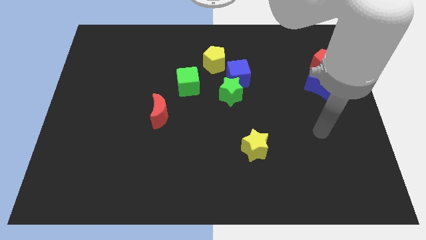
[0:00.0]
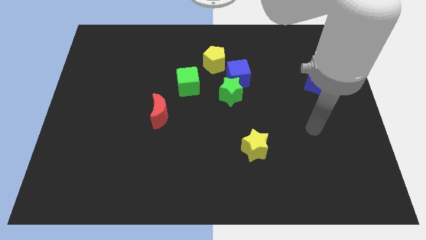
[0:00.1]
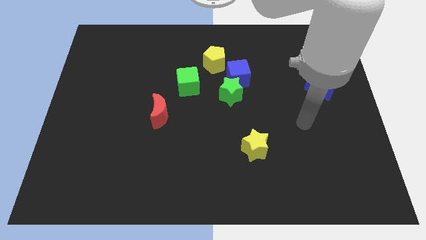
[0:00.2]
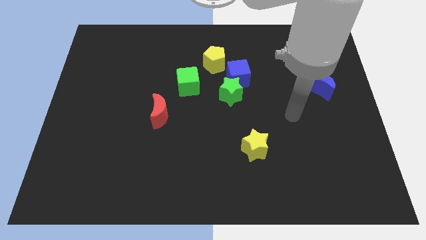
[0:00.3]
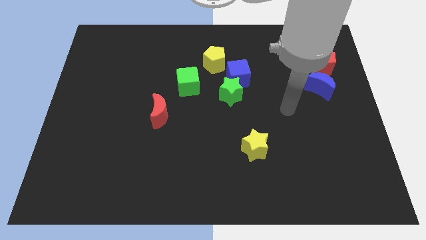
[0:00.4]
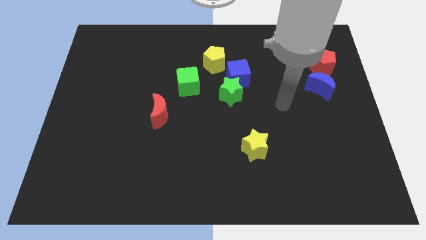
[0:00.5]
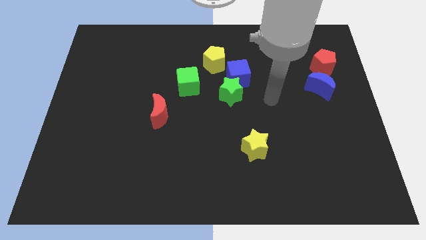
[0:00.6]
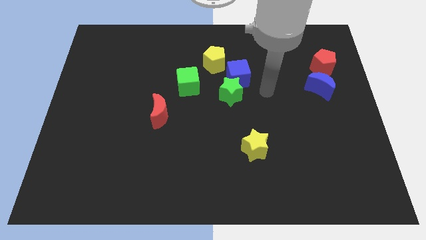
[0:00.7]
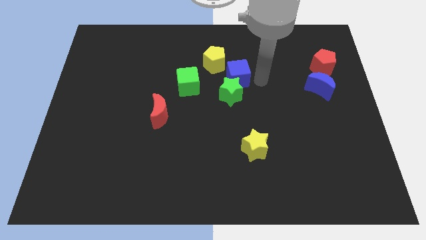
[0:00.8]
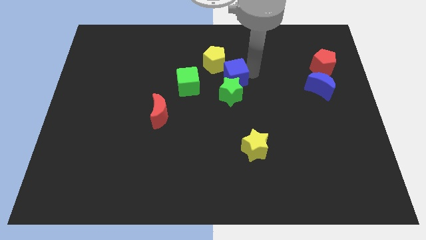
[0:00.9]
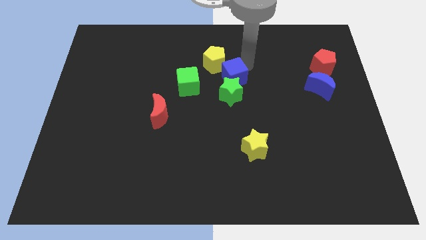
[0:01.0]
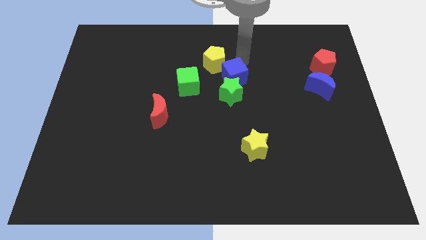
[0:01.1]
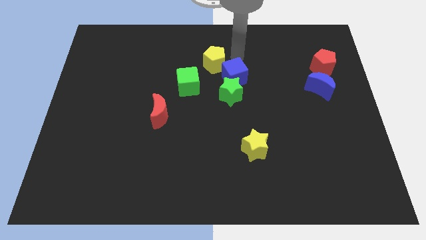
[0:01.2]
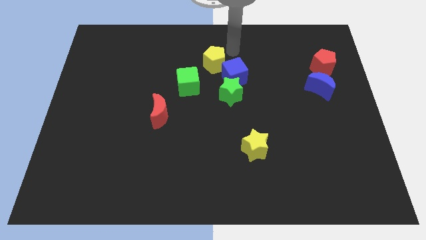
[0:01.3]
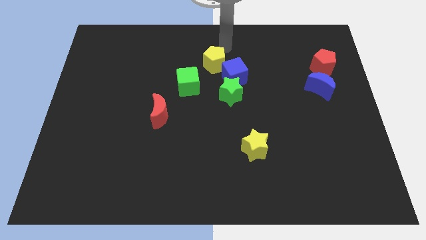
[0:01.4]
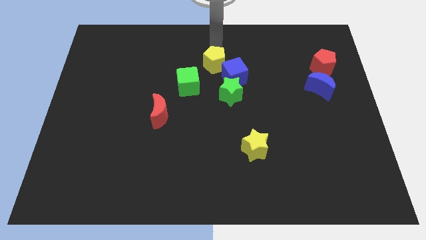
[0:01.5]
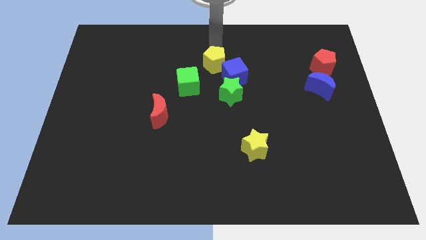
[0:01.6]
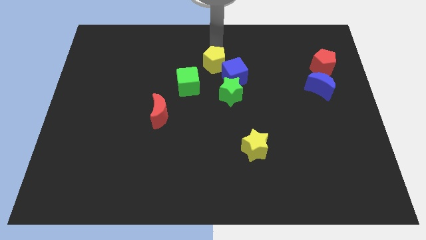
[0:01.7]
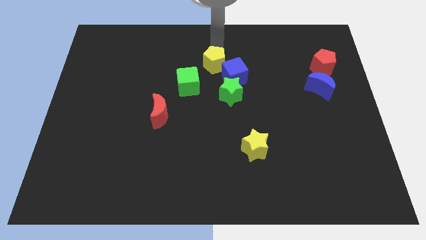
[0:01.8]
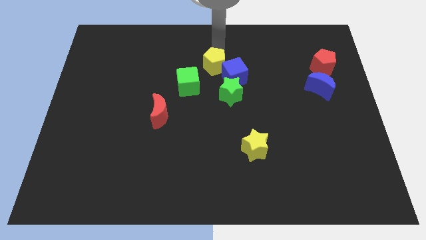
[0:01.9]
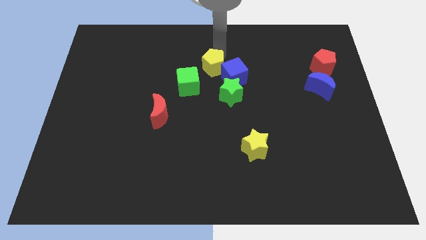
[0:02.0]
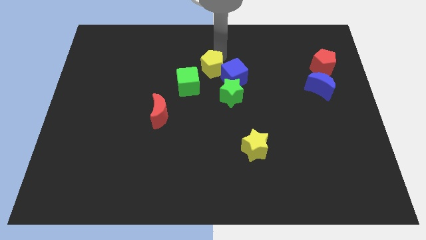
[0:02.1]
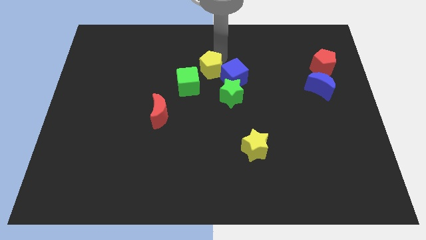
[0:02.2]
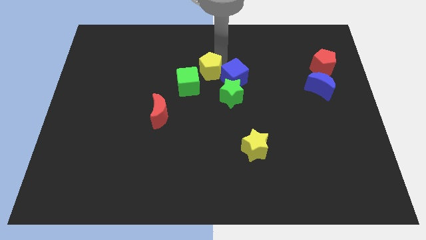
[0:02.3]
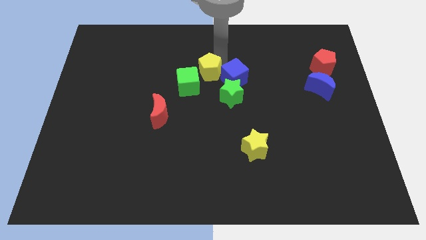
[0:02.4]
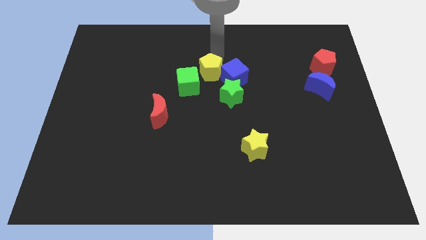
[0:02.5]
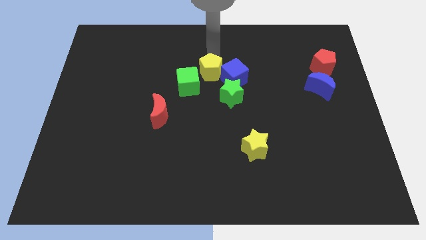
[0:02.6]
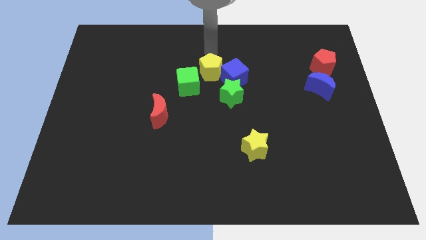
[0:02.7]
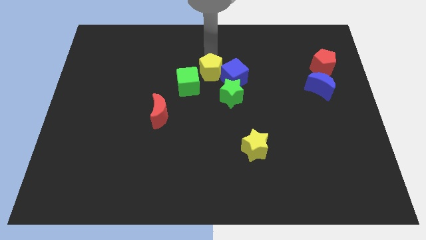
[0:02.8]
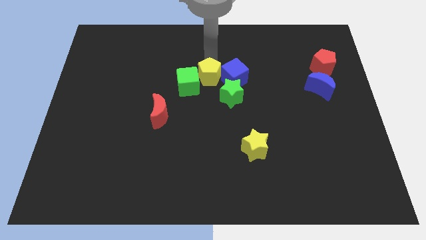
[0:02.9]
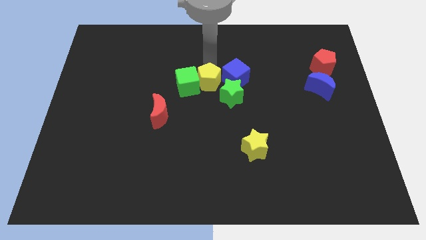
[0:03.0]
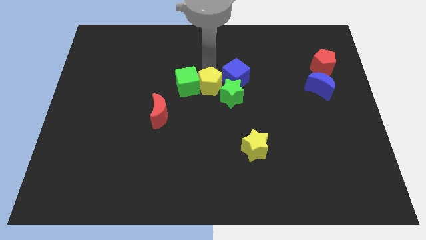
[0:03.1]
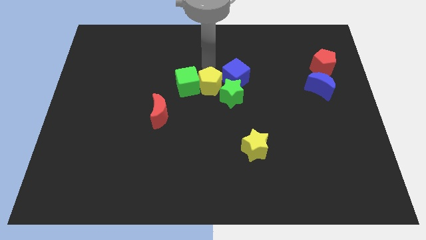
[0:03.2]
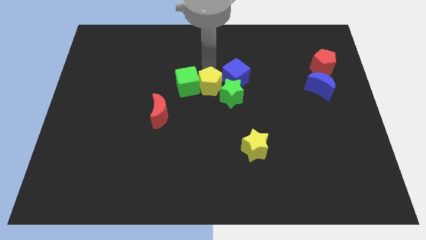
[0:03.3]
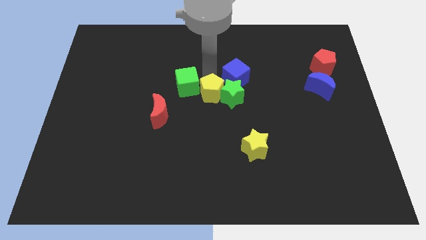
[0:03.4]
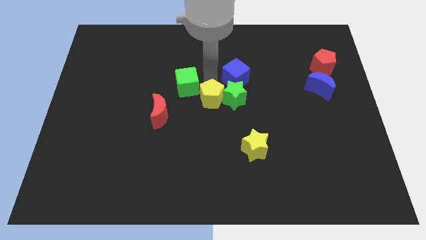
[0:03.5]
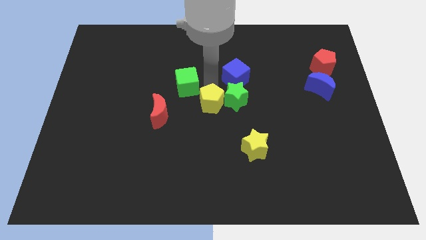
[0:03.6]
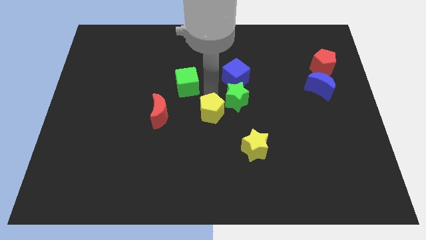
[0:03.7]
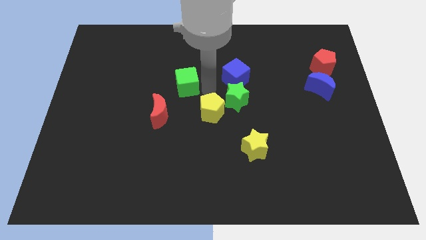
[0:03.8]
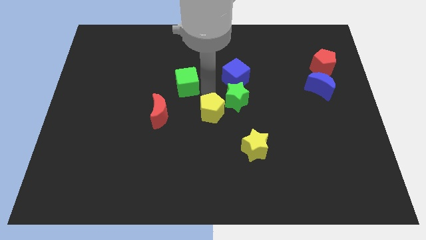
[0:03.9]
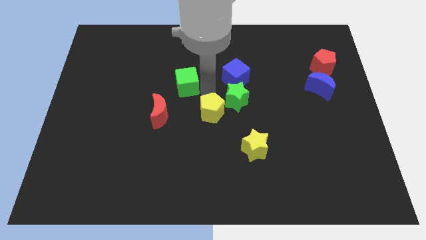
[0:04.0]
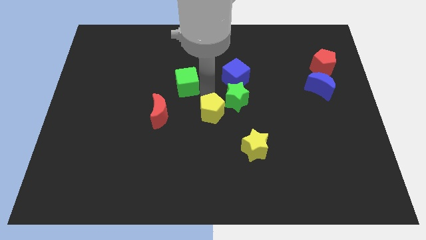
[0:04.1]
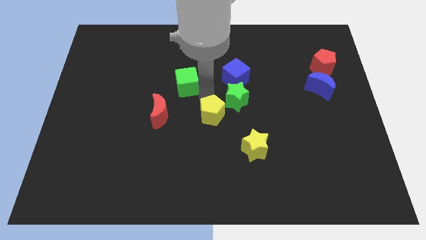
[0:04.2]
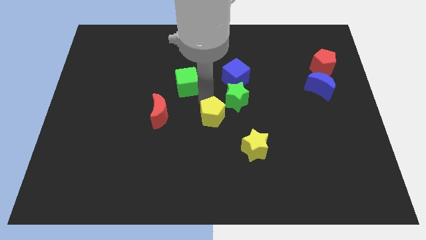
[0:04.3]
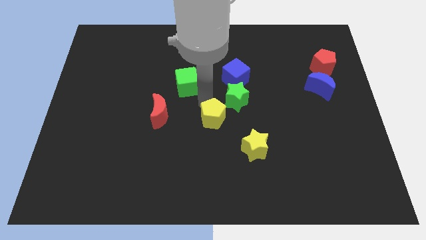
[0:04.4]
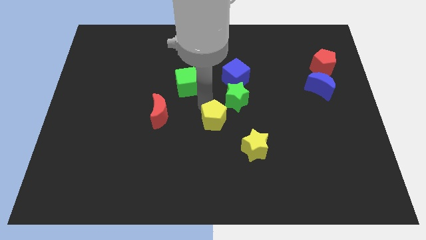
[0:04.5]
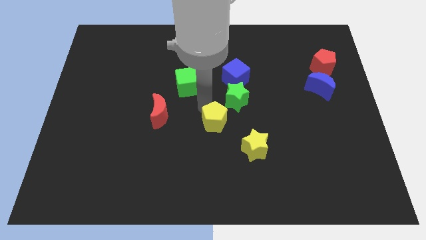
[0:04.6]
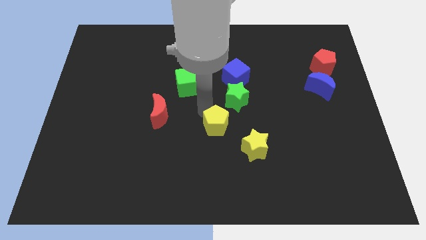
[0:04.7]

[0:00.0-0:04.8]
move the yellow pentagon down

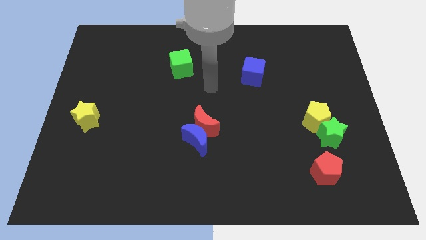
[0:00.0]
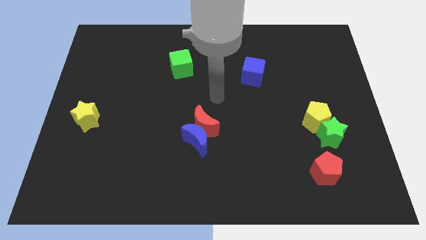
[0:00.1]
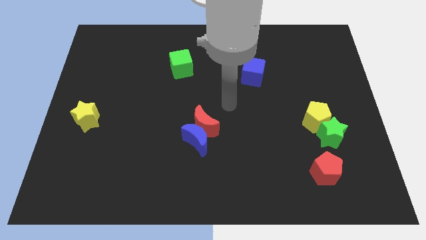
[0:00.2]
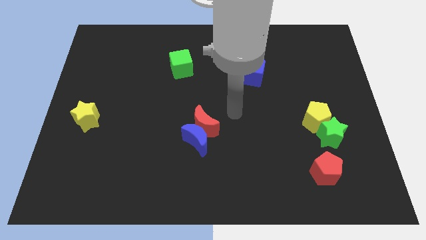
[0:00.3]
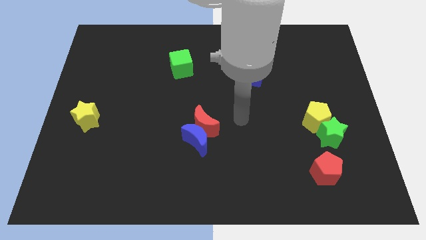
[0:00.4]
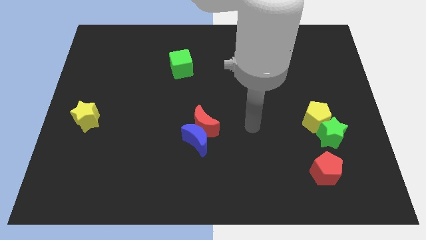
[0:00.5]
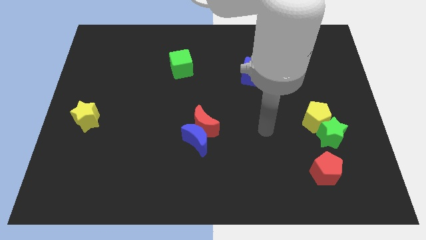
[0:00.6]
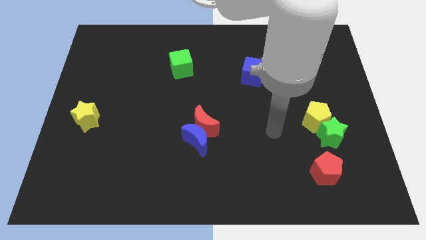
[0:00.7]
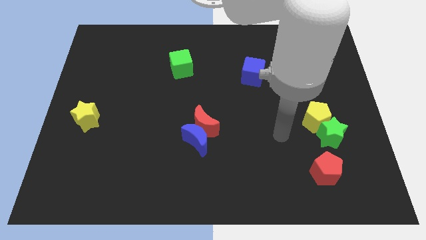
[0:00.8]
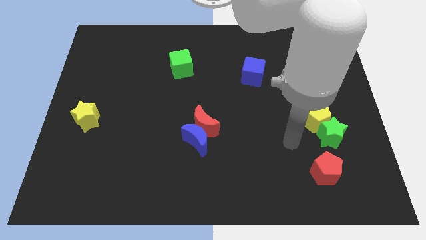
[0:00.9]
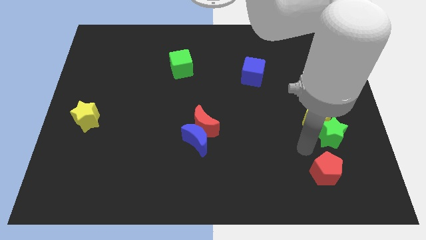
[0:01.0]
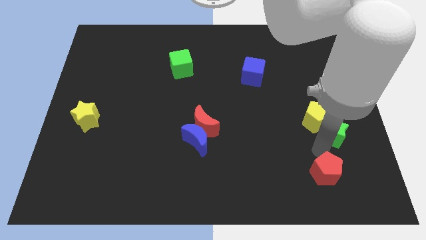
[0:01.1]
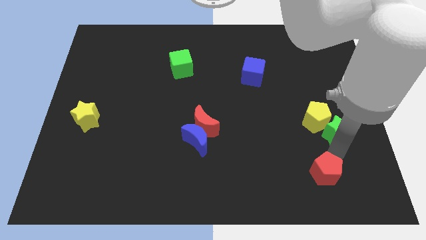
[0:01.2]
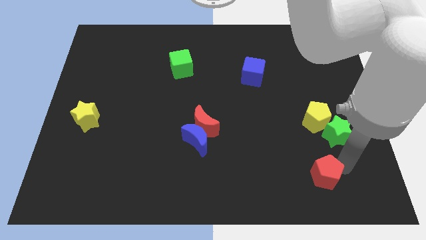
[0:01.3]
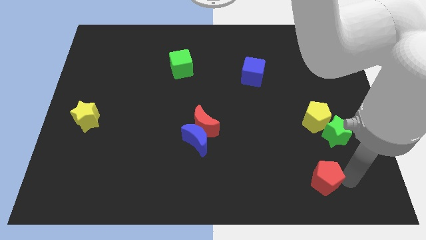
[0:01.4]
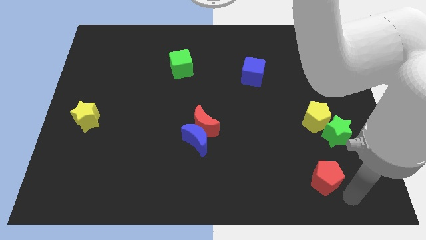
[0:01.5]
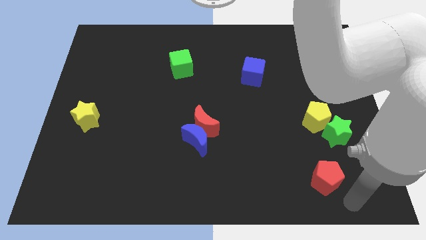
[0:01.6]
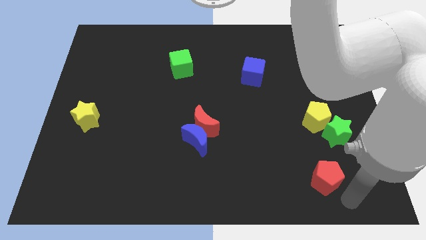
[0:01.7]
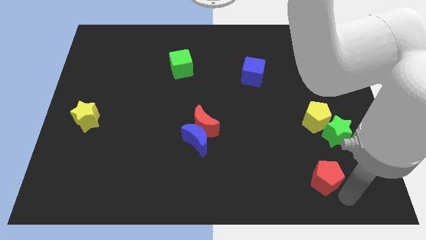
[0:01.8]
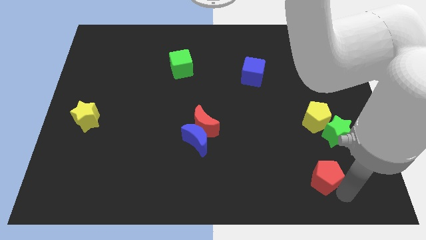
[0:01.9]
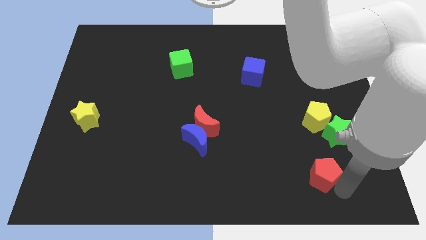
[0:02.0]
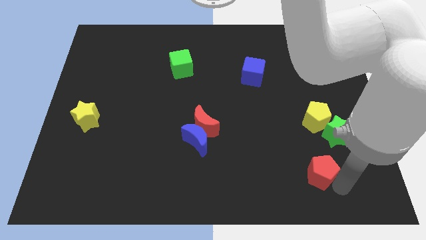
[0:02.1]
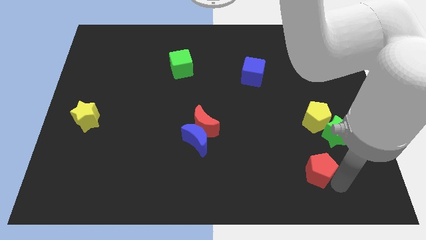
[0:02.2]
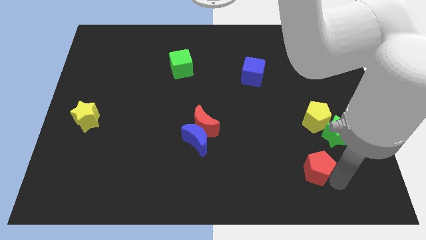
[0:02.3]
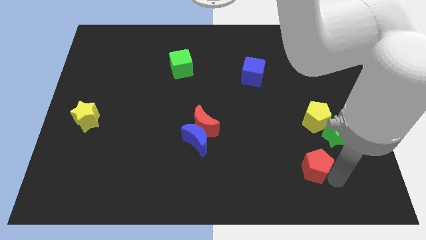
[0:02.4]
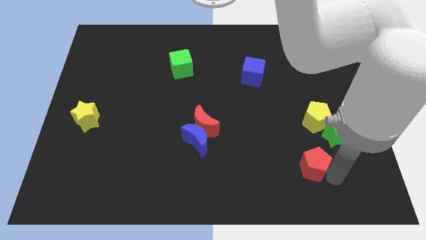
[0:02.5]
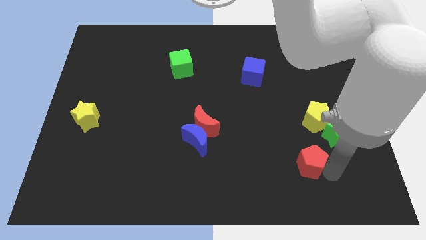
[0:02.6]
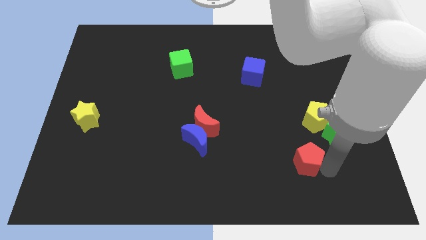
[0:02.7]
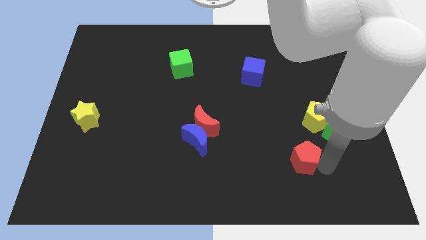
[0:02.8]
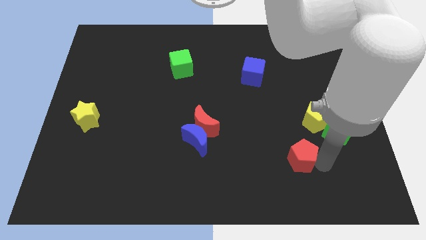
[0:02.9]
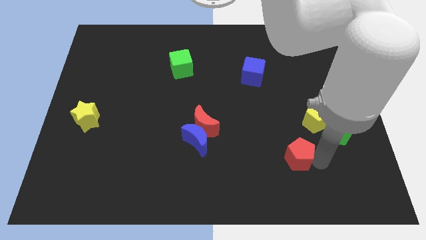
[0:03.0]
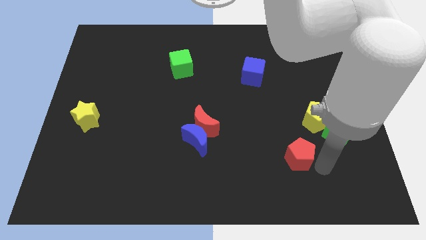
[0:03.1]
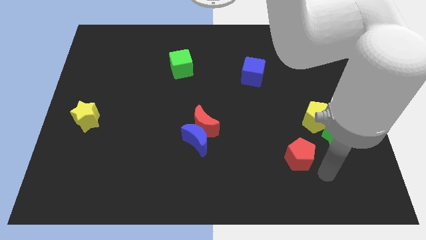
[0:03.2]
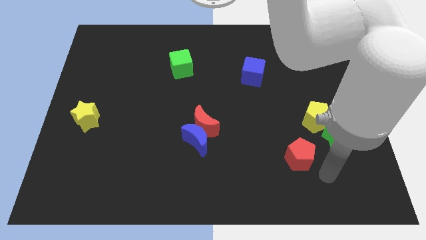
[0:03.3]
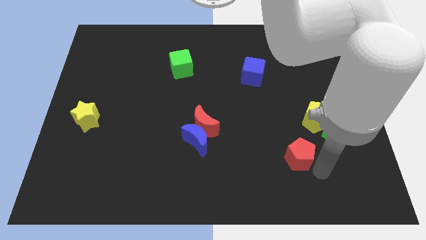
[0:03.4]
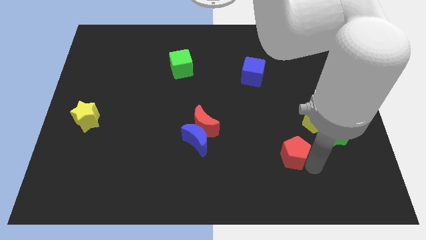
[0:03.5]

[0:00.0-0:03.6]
push the red pentagon up and left somewhat
